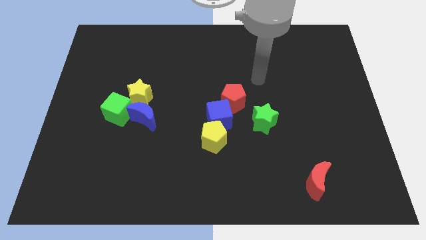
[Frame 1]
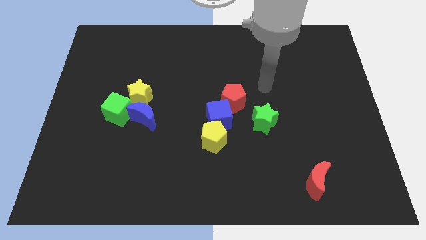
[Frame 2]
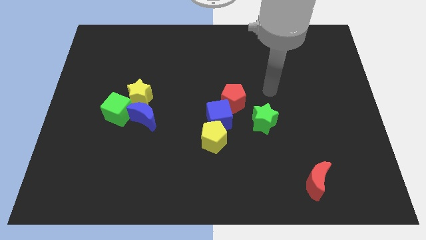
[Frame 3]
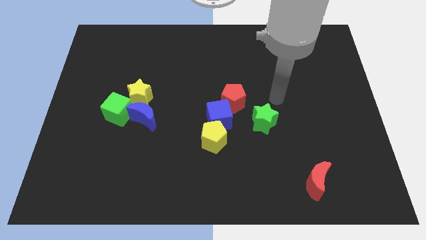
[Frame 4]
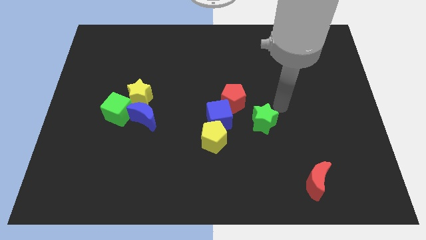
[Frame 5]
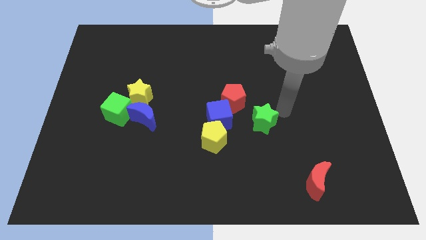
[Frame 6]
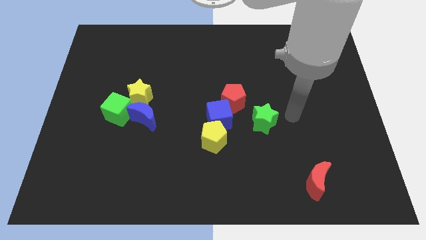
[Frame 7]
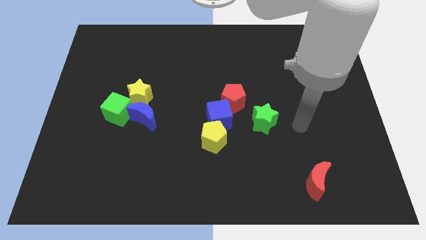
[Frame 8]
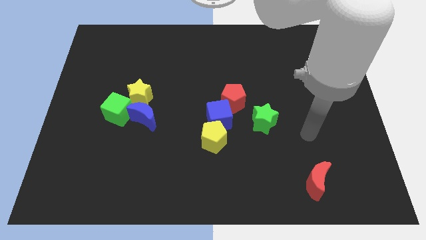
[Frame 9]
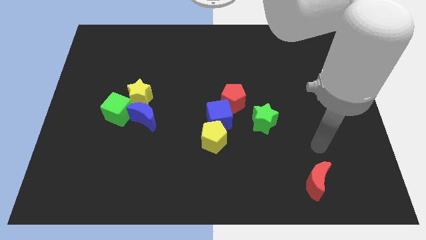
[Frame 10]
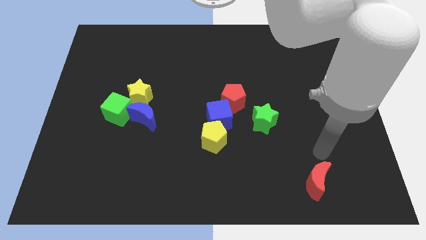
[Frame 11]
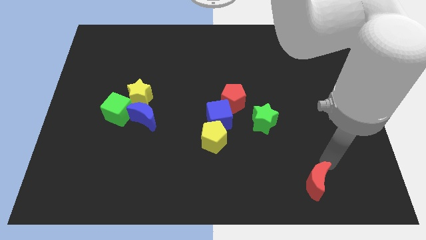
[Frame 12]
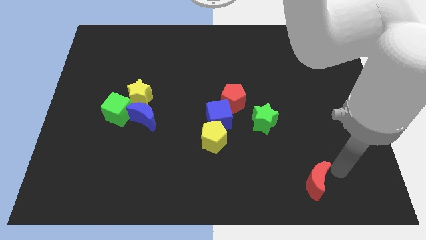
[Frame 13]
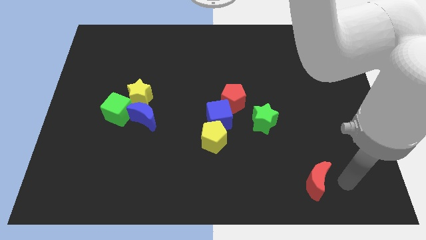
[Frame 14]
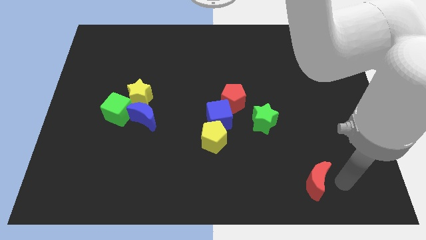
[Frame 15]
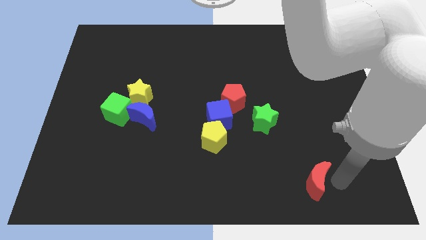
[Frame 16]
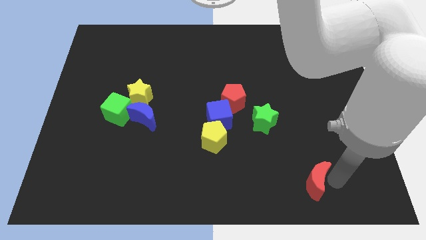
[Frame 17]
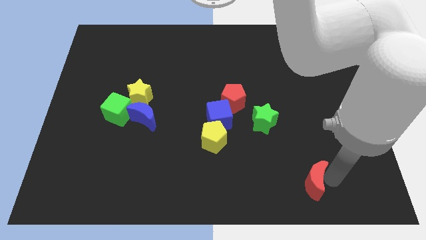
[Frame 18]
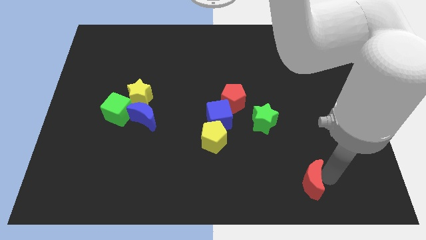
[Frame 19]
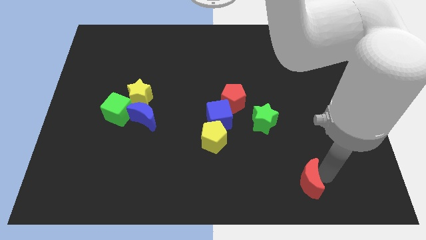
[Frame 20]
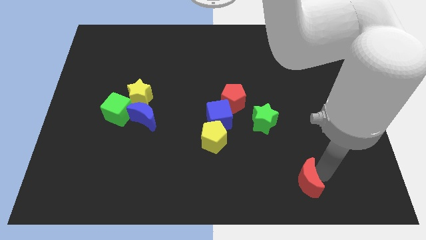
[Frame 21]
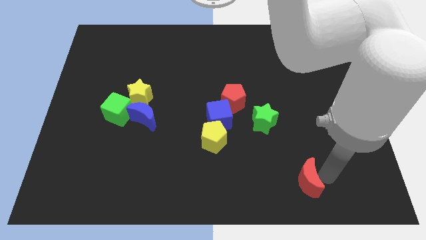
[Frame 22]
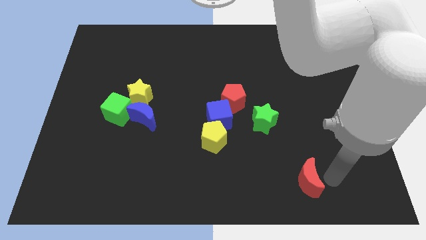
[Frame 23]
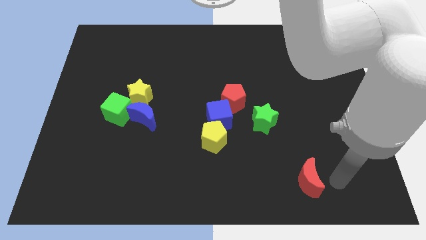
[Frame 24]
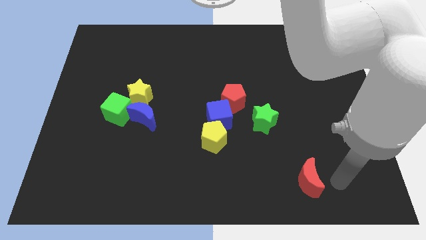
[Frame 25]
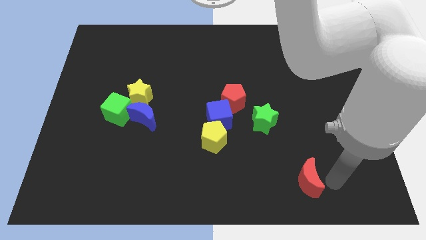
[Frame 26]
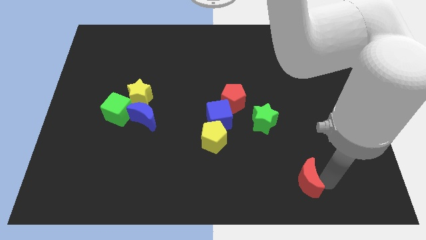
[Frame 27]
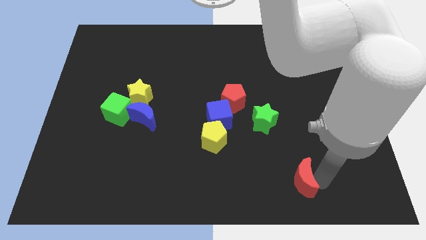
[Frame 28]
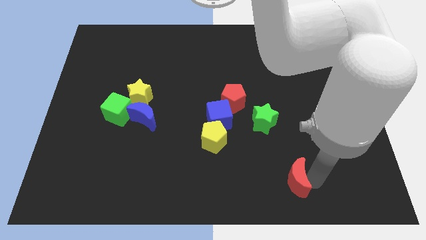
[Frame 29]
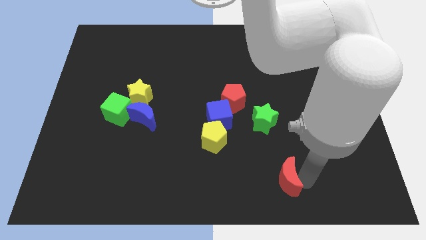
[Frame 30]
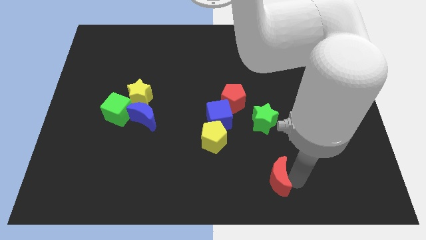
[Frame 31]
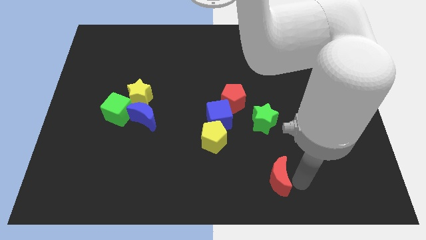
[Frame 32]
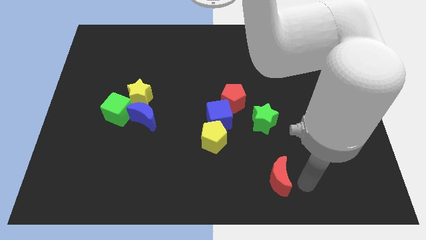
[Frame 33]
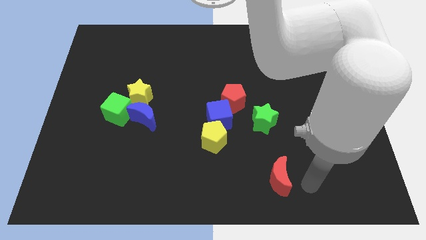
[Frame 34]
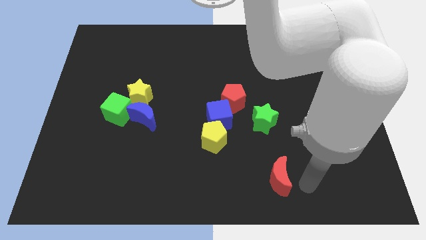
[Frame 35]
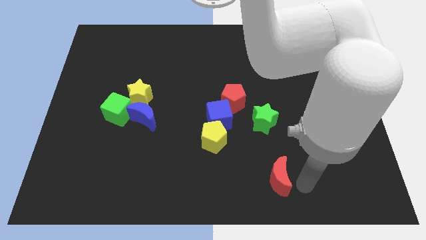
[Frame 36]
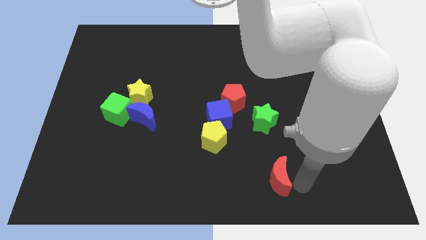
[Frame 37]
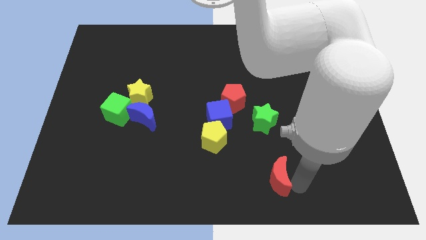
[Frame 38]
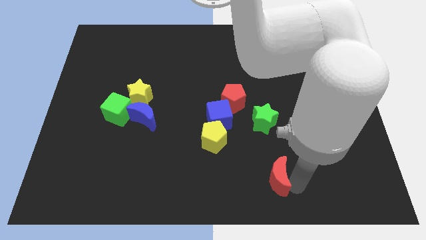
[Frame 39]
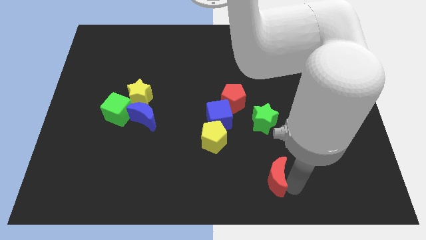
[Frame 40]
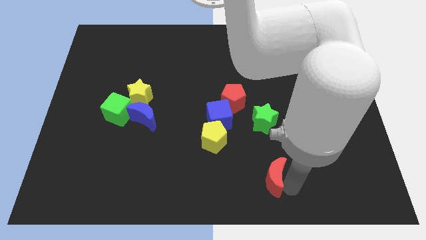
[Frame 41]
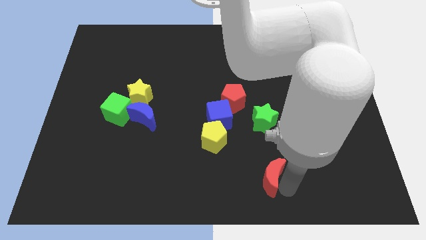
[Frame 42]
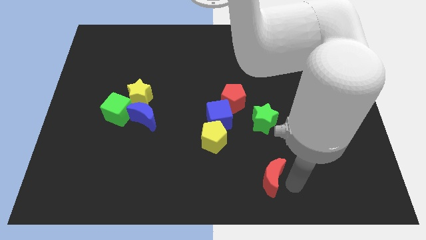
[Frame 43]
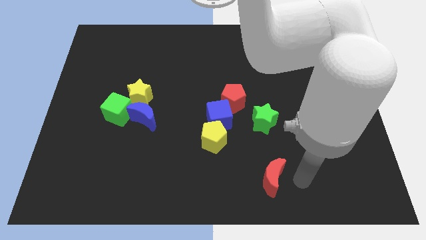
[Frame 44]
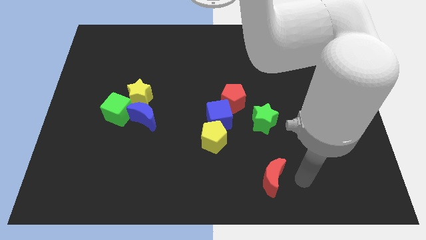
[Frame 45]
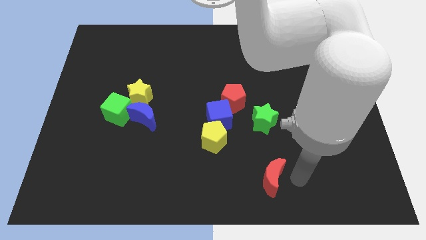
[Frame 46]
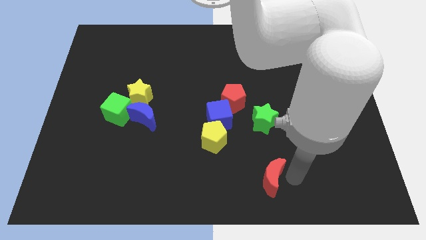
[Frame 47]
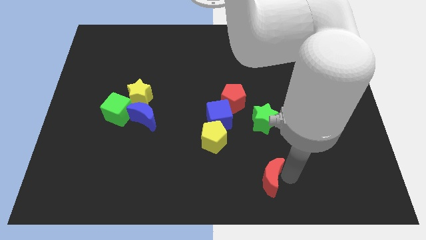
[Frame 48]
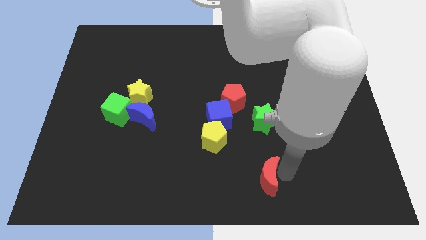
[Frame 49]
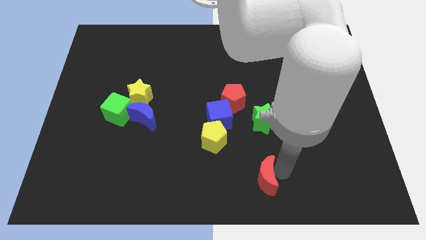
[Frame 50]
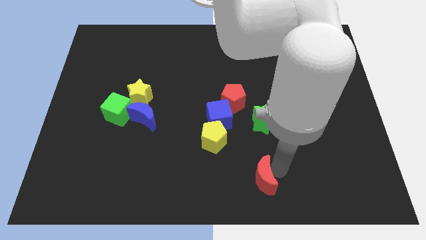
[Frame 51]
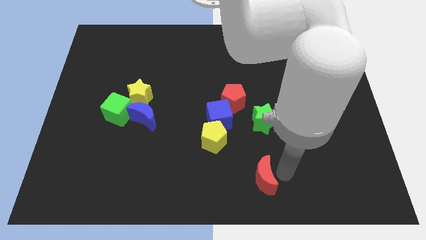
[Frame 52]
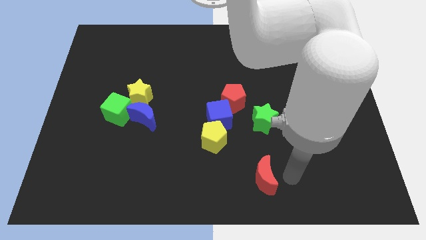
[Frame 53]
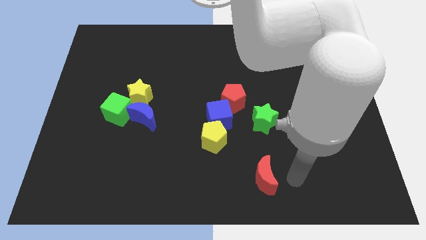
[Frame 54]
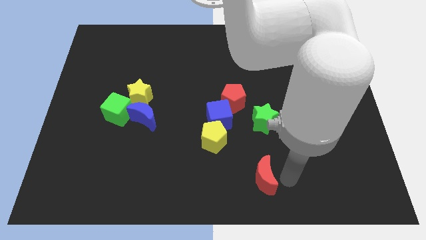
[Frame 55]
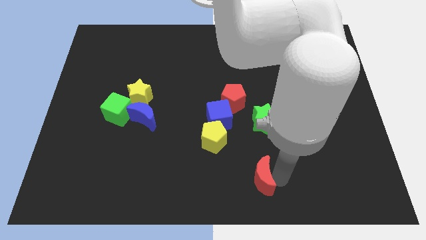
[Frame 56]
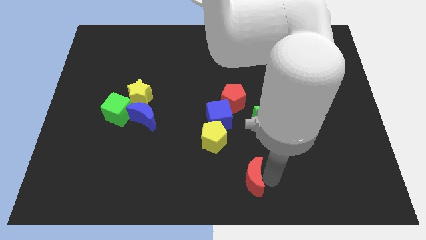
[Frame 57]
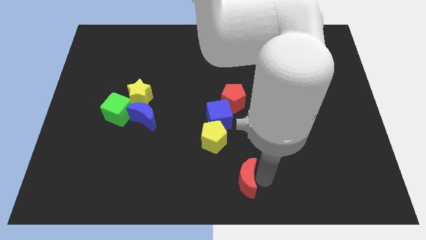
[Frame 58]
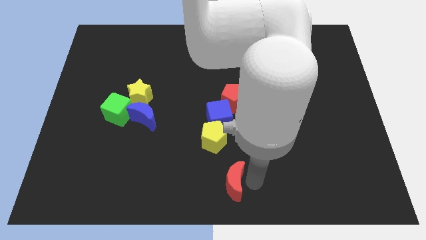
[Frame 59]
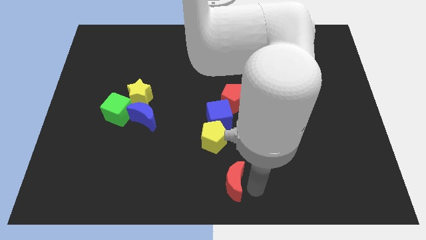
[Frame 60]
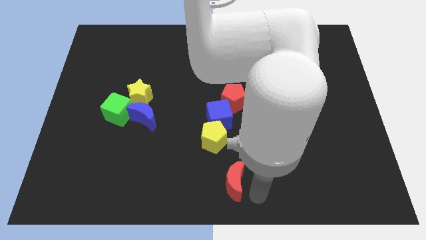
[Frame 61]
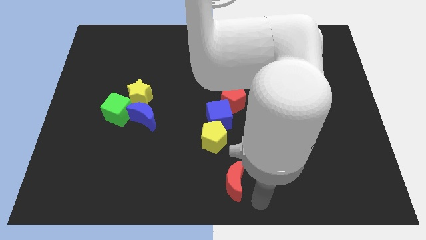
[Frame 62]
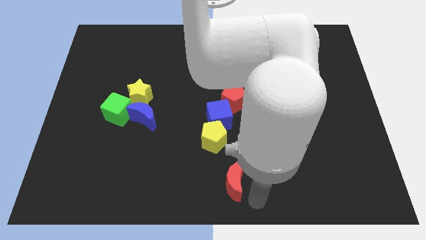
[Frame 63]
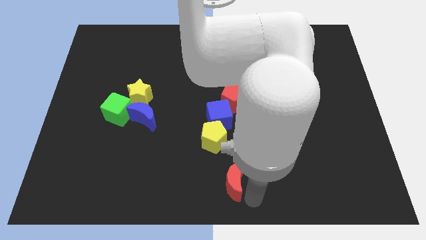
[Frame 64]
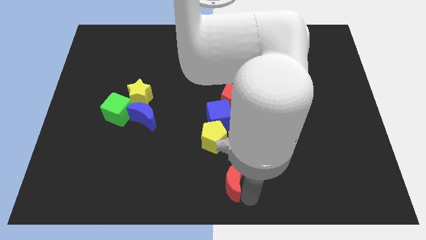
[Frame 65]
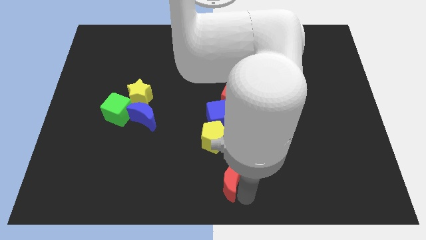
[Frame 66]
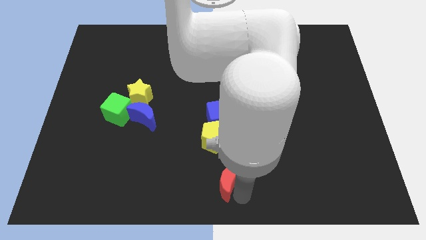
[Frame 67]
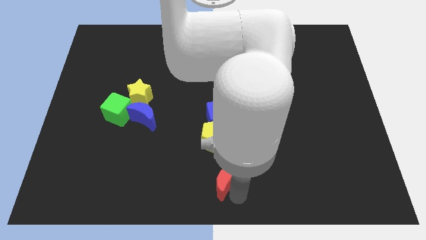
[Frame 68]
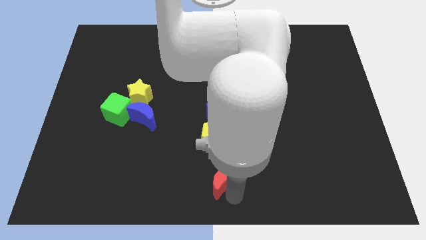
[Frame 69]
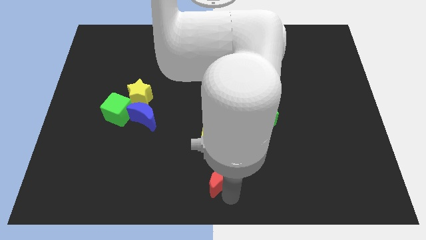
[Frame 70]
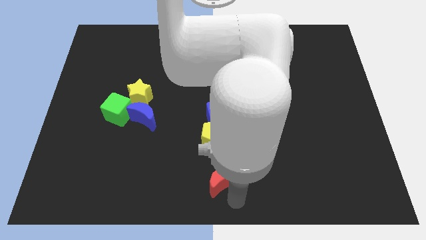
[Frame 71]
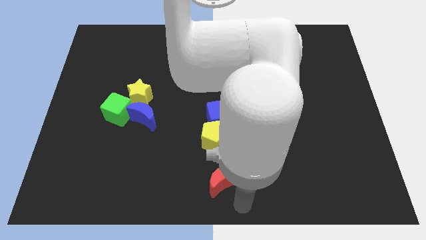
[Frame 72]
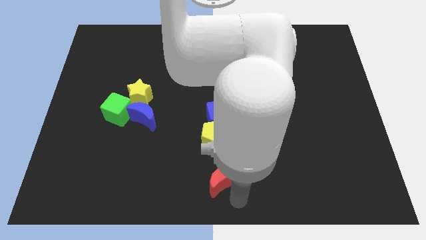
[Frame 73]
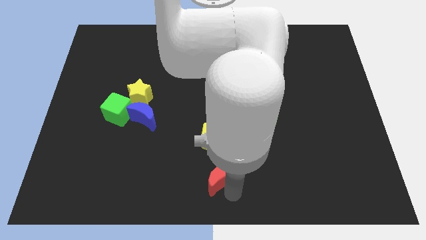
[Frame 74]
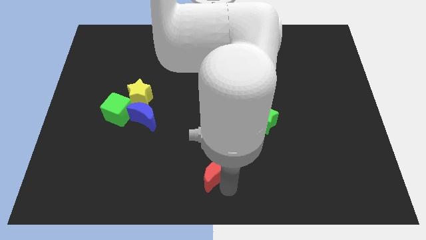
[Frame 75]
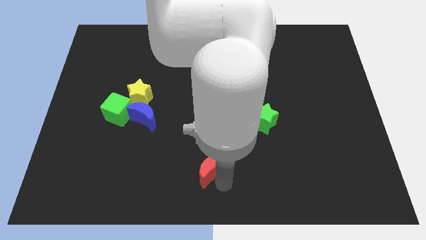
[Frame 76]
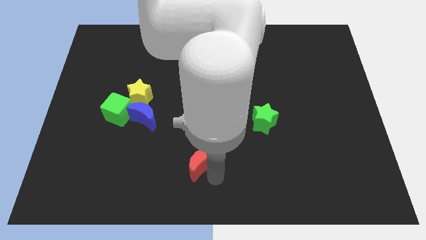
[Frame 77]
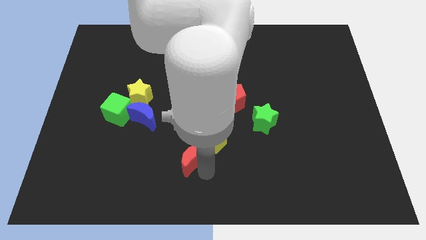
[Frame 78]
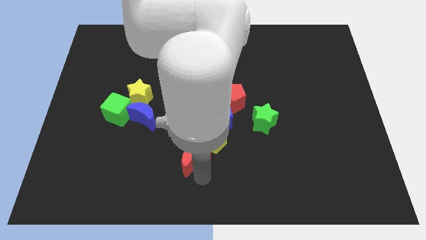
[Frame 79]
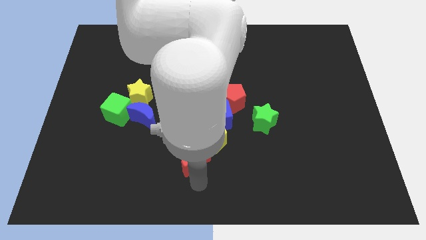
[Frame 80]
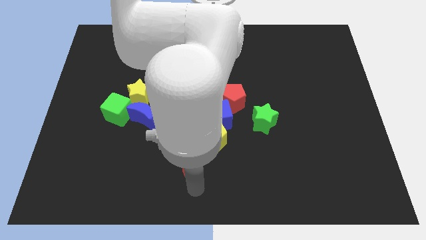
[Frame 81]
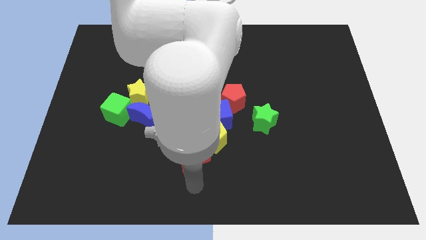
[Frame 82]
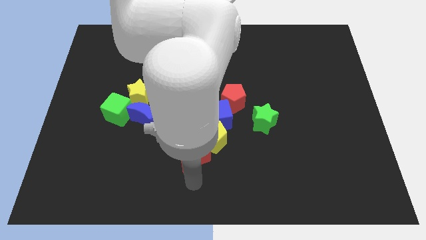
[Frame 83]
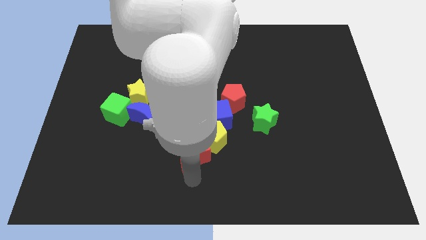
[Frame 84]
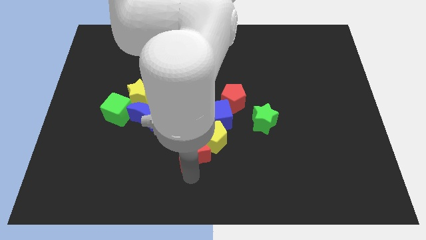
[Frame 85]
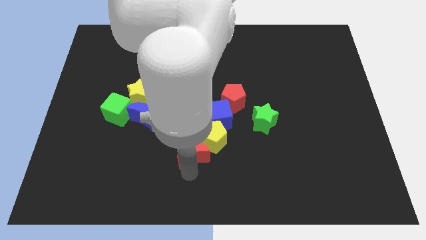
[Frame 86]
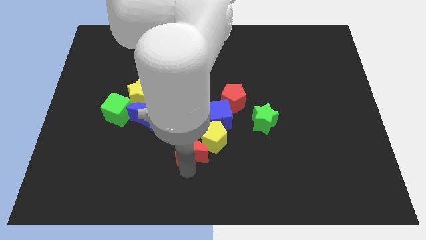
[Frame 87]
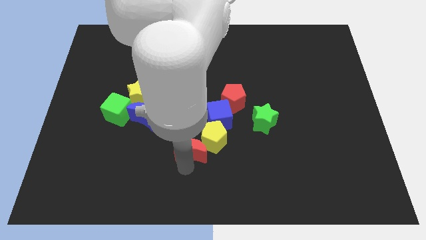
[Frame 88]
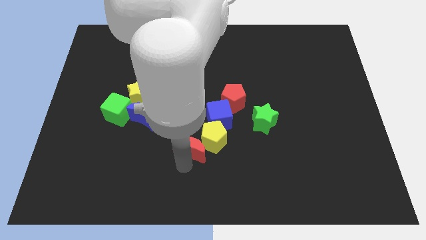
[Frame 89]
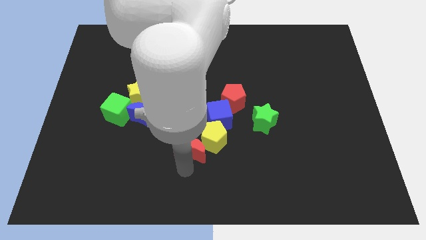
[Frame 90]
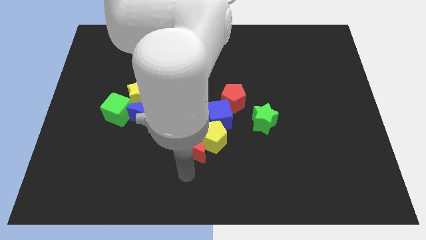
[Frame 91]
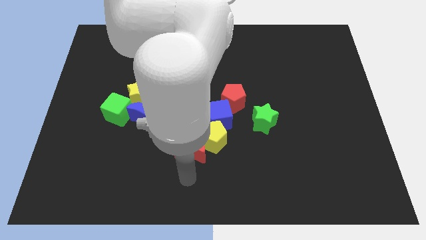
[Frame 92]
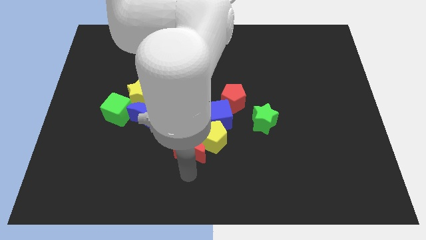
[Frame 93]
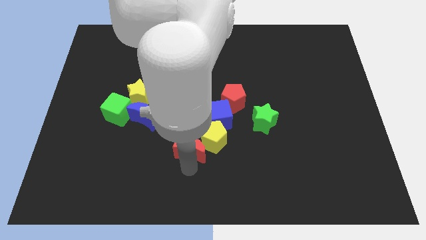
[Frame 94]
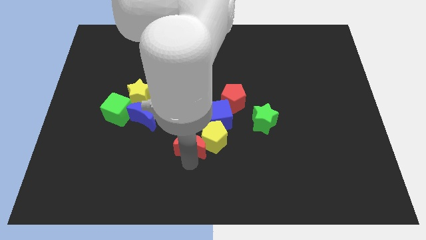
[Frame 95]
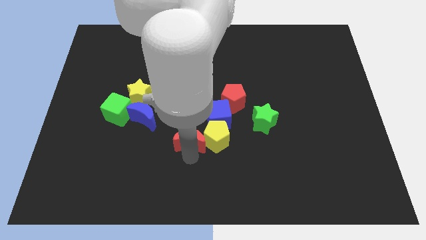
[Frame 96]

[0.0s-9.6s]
slide the red moon to the top left of the yellow pentagon
